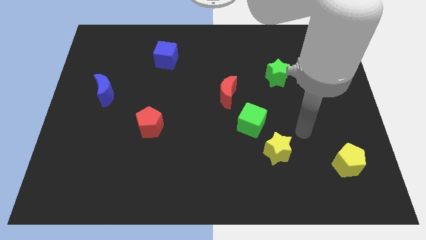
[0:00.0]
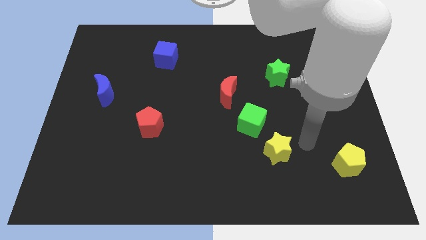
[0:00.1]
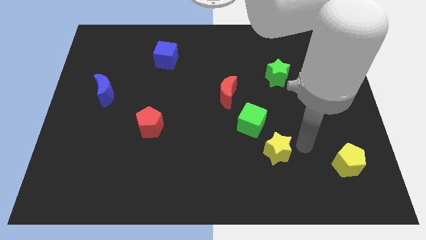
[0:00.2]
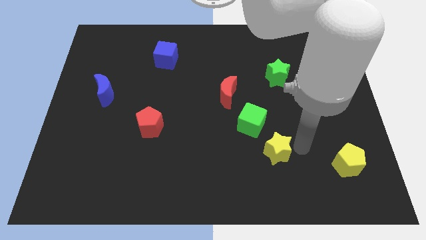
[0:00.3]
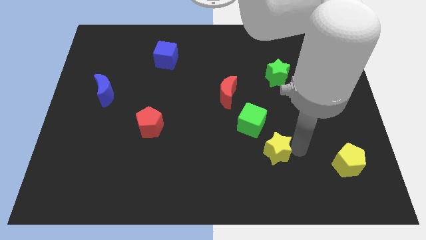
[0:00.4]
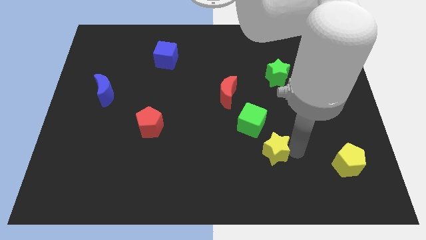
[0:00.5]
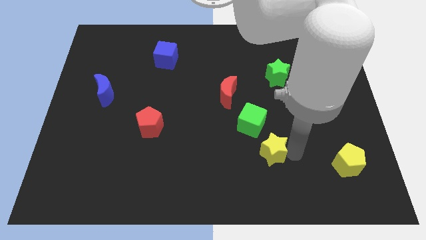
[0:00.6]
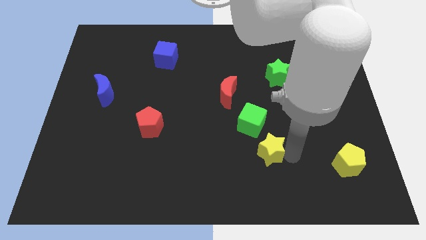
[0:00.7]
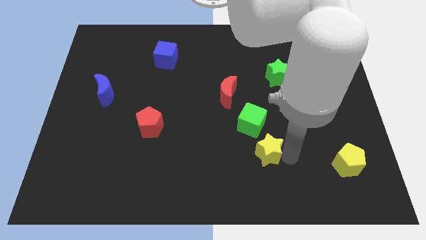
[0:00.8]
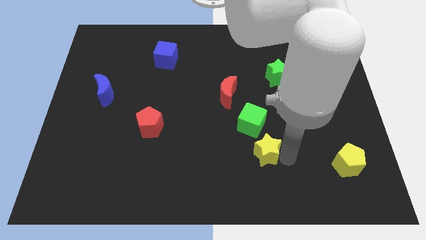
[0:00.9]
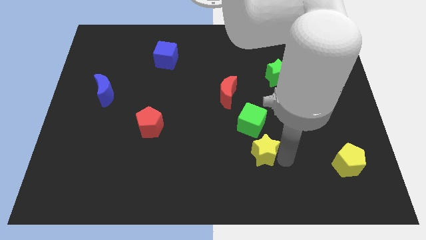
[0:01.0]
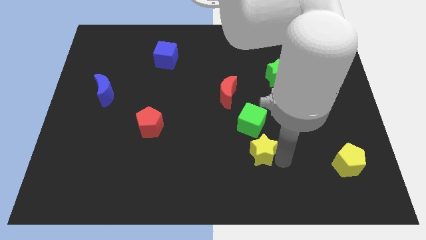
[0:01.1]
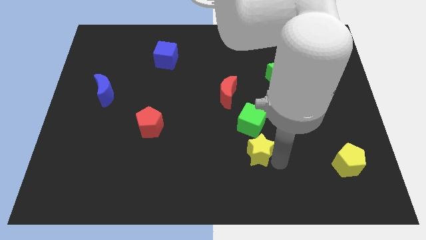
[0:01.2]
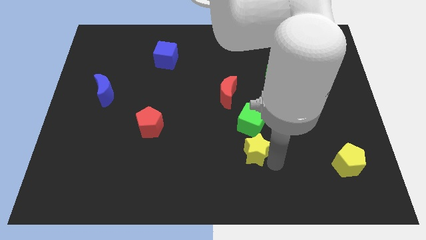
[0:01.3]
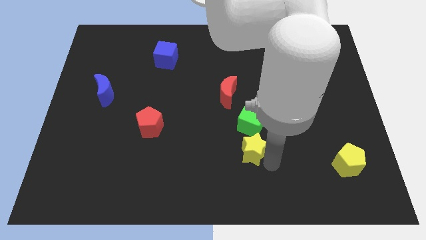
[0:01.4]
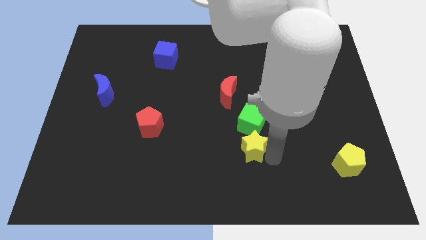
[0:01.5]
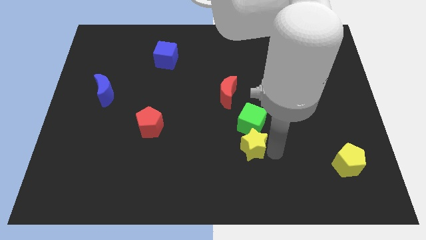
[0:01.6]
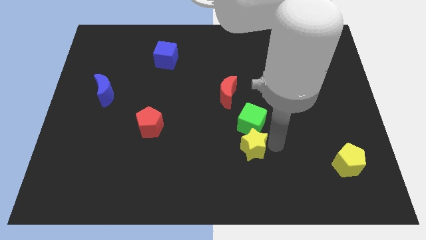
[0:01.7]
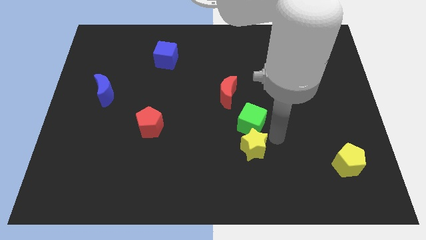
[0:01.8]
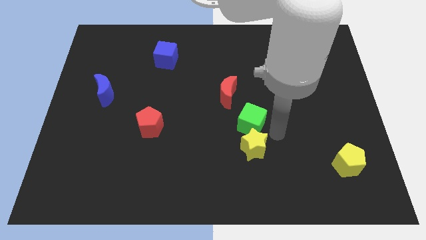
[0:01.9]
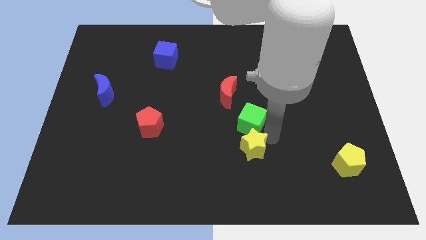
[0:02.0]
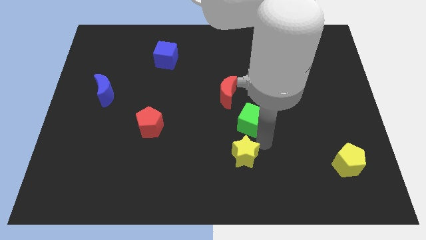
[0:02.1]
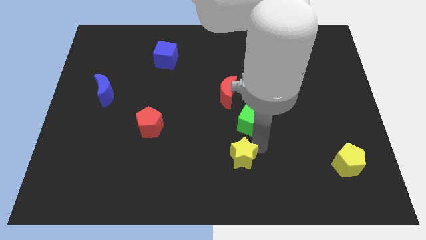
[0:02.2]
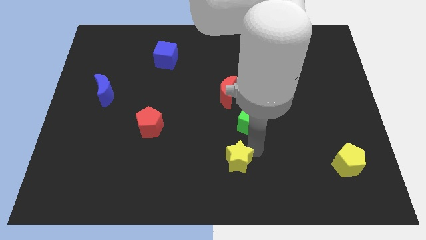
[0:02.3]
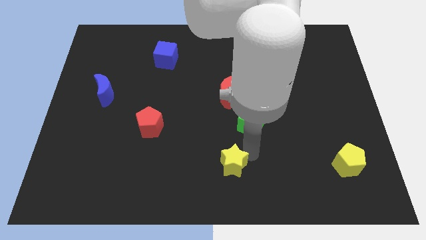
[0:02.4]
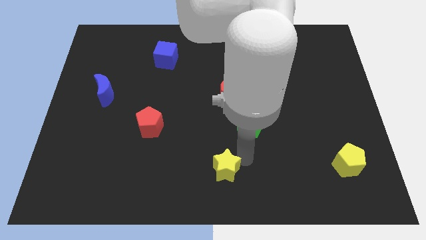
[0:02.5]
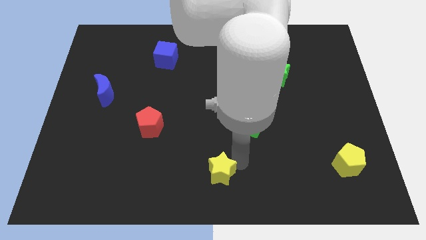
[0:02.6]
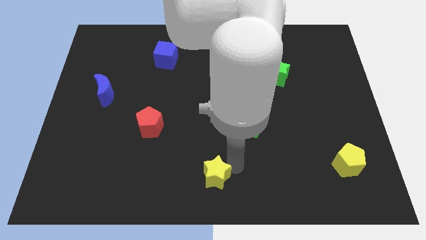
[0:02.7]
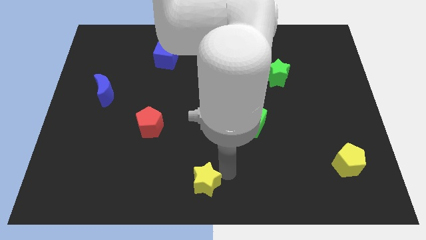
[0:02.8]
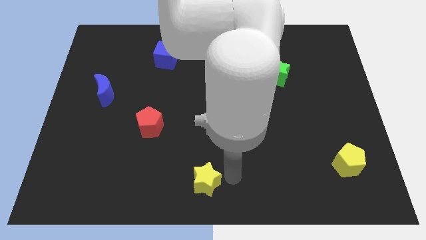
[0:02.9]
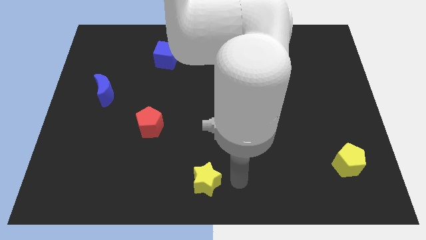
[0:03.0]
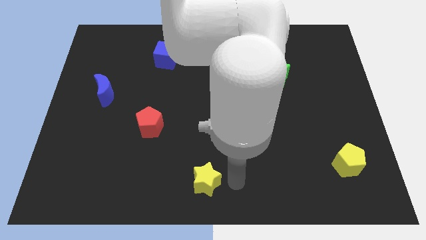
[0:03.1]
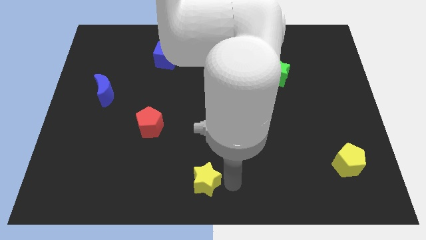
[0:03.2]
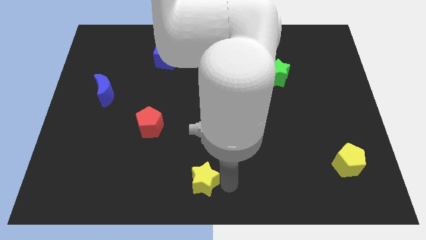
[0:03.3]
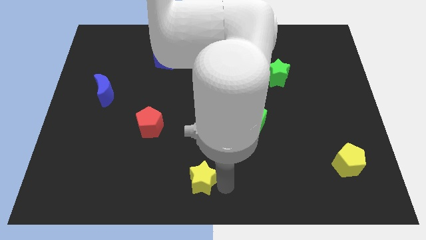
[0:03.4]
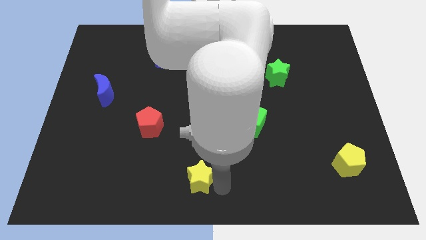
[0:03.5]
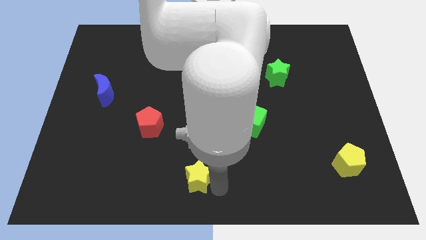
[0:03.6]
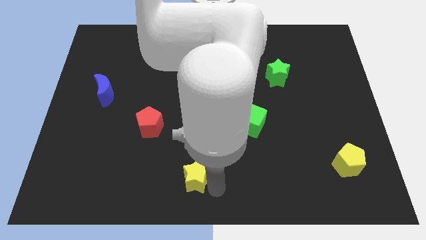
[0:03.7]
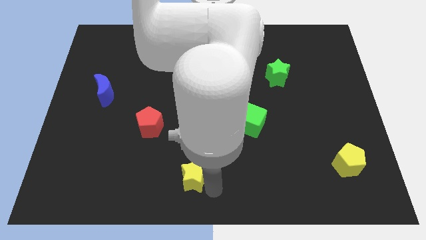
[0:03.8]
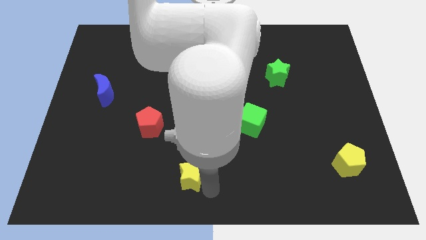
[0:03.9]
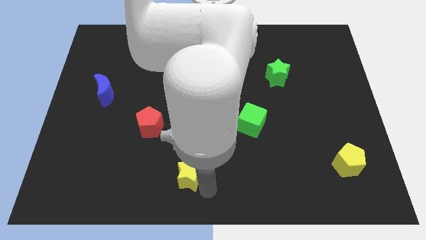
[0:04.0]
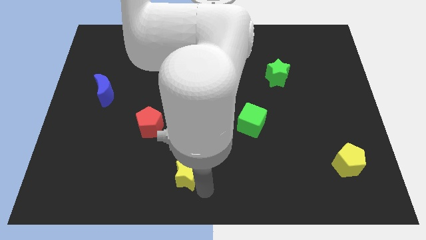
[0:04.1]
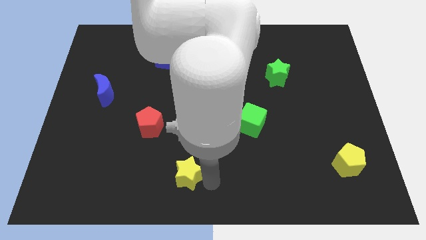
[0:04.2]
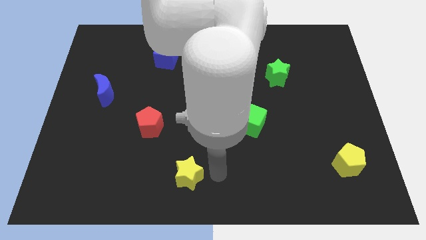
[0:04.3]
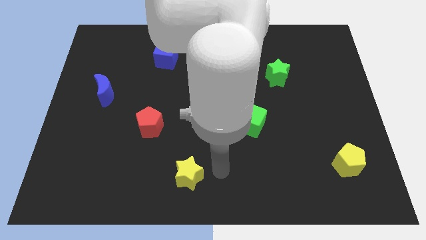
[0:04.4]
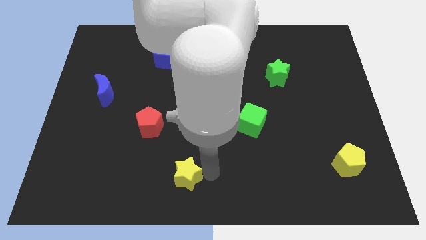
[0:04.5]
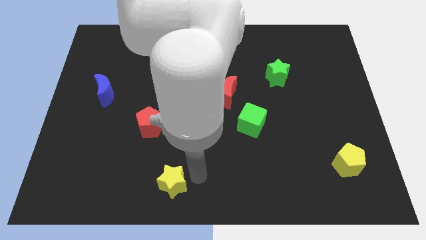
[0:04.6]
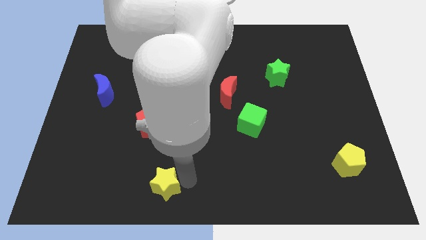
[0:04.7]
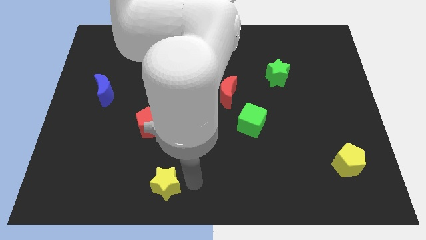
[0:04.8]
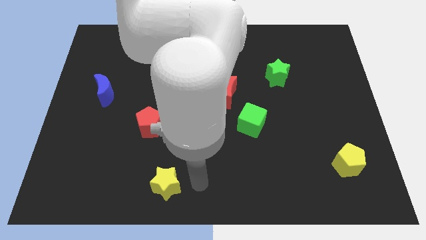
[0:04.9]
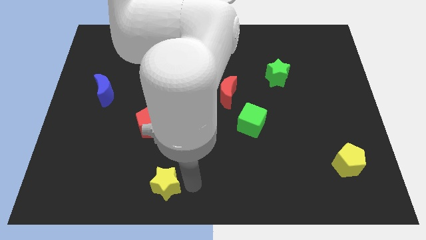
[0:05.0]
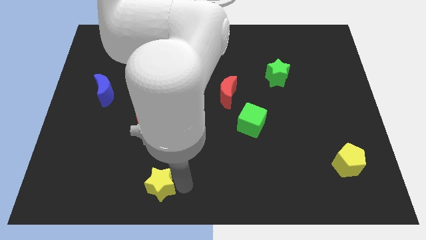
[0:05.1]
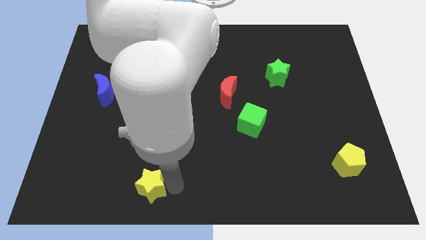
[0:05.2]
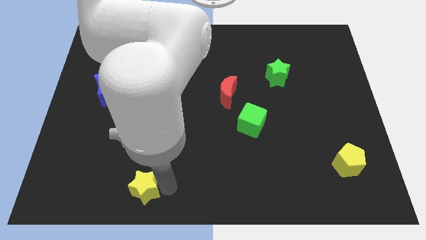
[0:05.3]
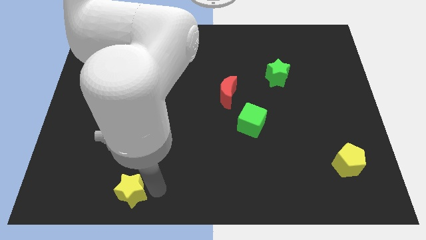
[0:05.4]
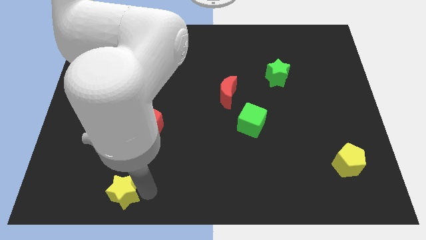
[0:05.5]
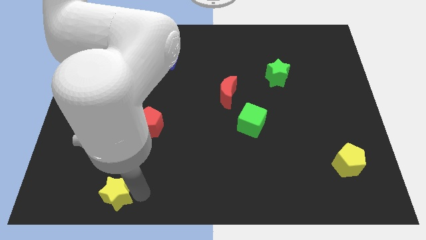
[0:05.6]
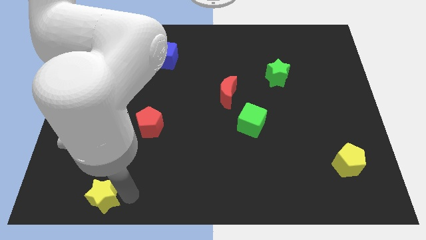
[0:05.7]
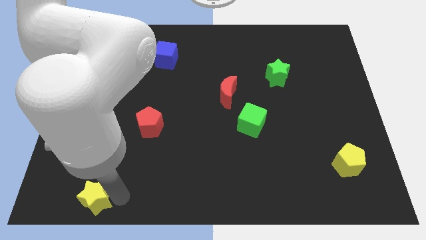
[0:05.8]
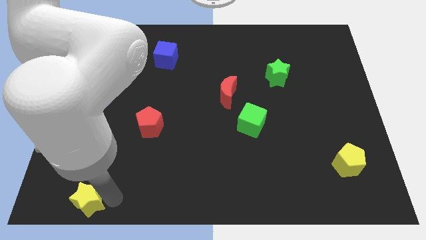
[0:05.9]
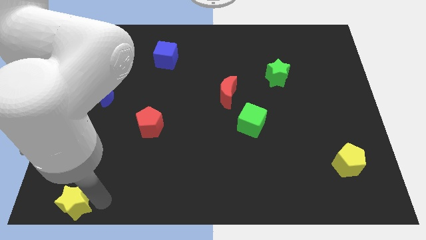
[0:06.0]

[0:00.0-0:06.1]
push the yellow star to the bottom left corner
